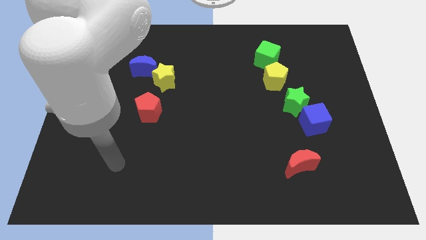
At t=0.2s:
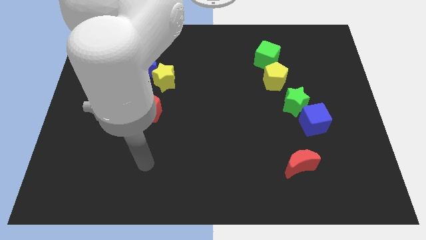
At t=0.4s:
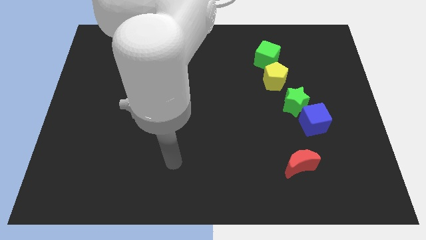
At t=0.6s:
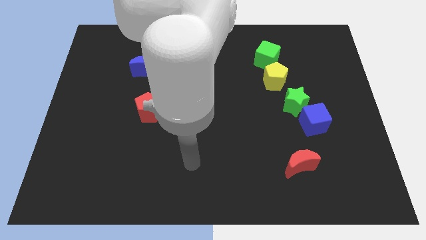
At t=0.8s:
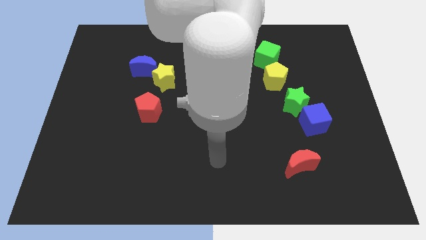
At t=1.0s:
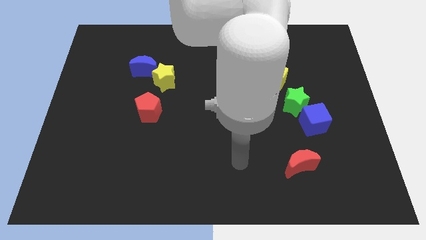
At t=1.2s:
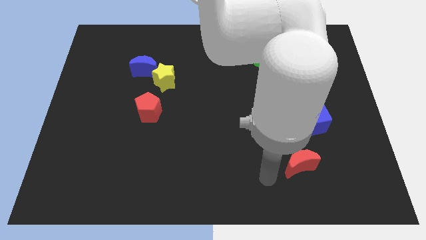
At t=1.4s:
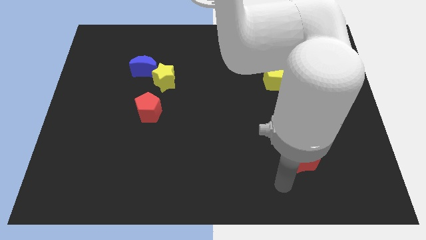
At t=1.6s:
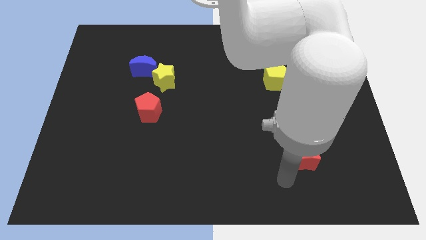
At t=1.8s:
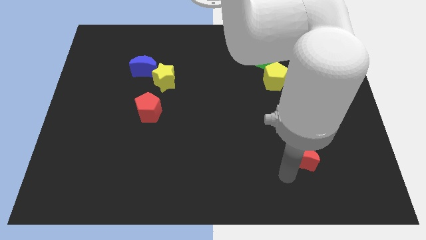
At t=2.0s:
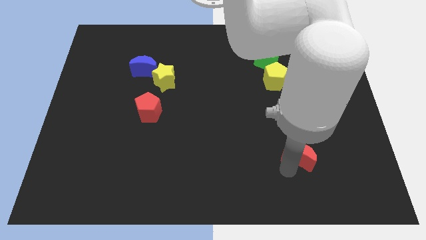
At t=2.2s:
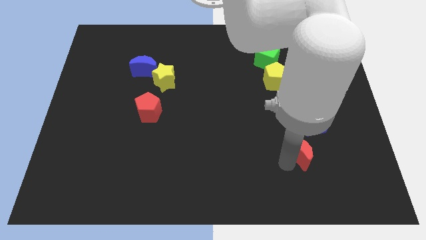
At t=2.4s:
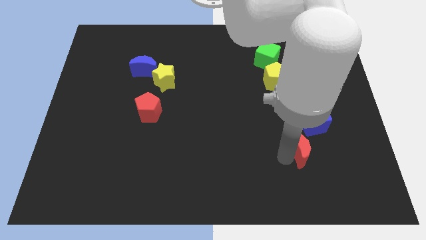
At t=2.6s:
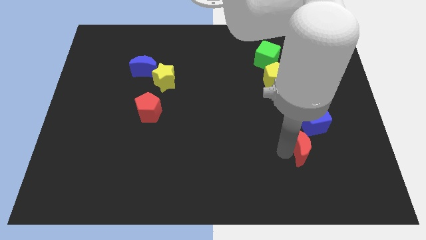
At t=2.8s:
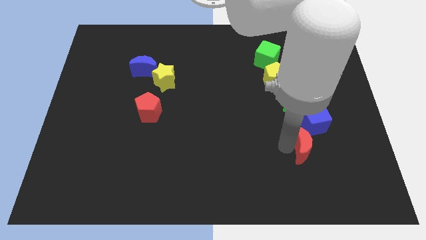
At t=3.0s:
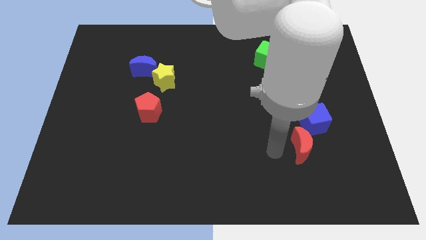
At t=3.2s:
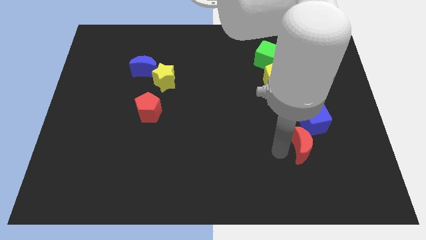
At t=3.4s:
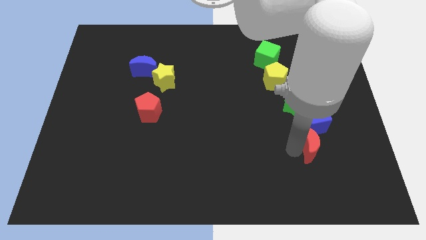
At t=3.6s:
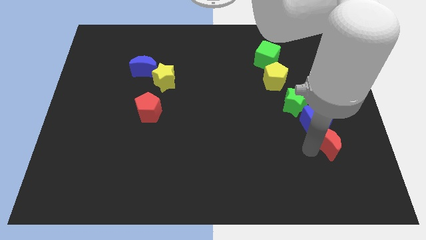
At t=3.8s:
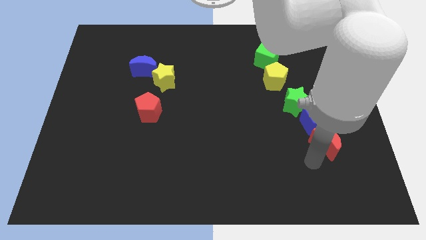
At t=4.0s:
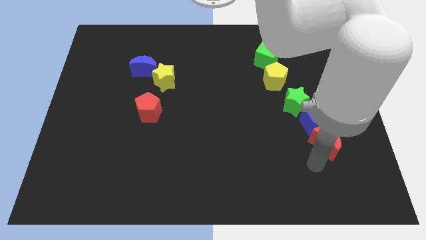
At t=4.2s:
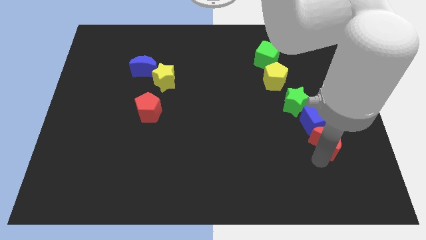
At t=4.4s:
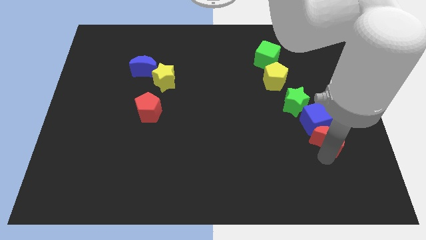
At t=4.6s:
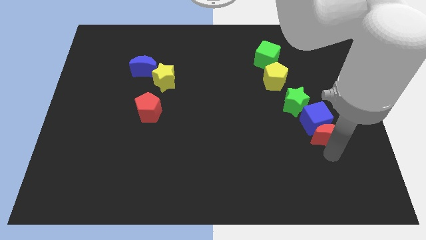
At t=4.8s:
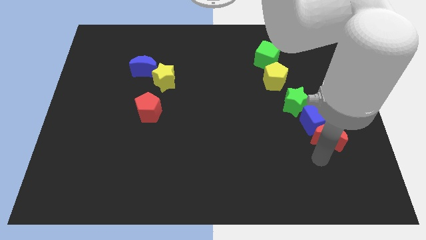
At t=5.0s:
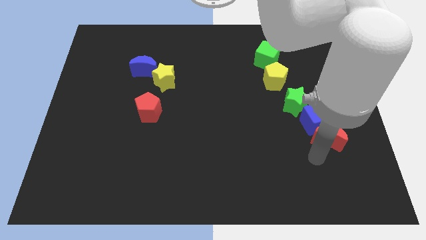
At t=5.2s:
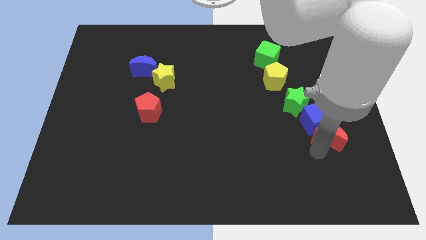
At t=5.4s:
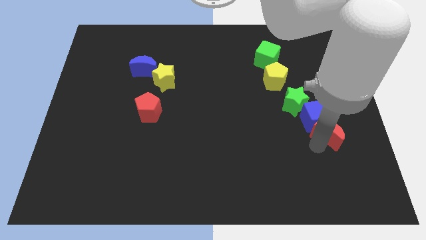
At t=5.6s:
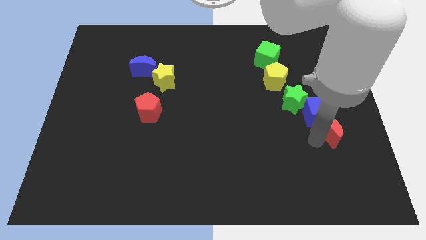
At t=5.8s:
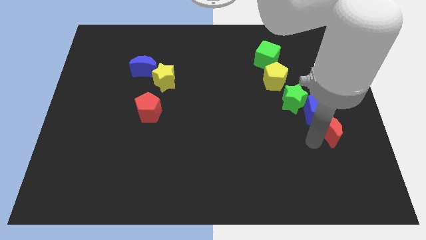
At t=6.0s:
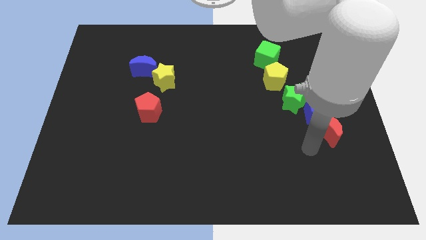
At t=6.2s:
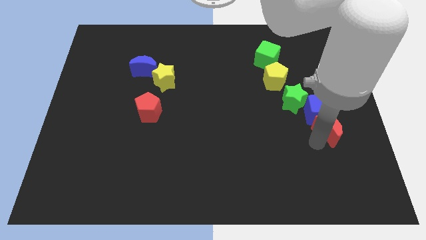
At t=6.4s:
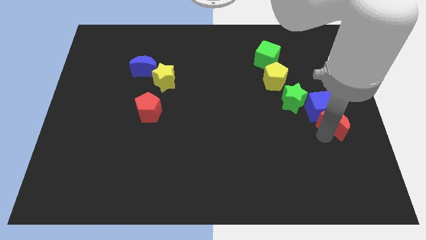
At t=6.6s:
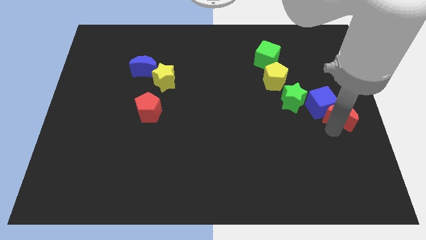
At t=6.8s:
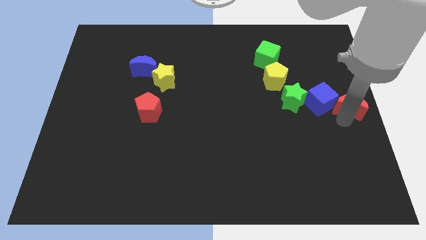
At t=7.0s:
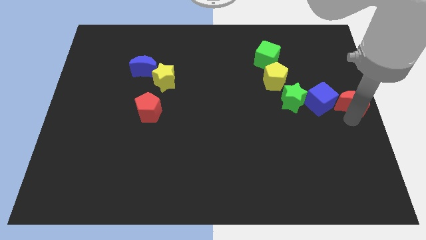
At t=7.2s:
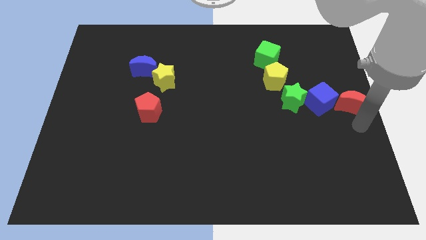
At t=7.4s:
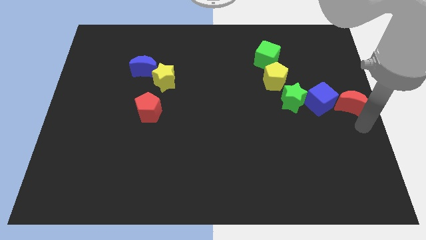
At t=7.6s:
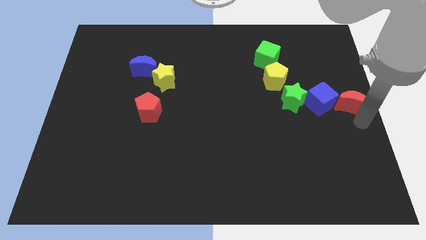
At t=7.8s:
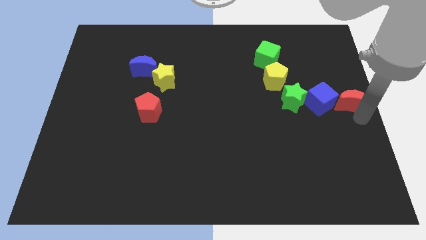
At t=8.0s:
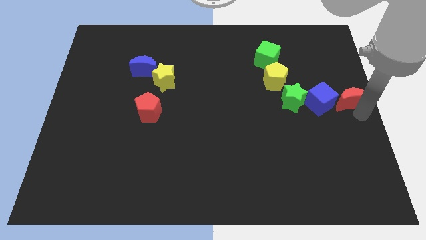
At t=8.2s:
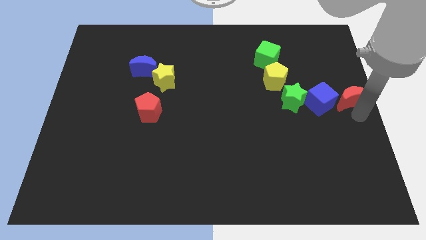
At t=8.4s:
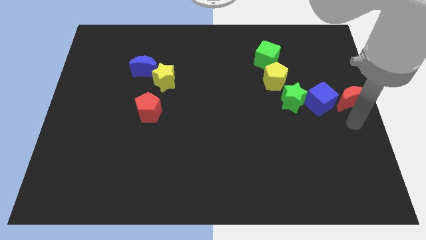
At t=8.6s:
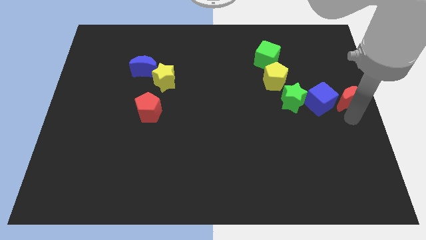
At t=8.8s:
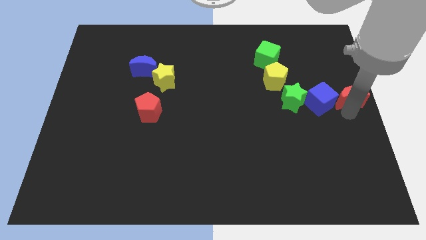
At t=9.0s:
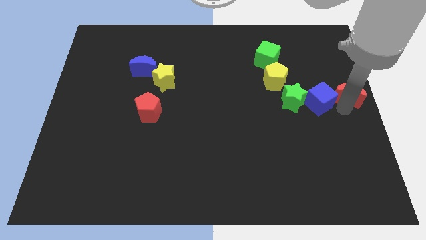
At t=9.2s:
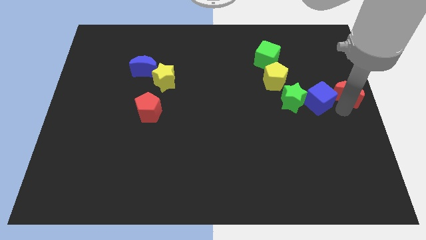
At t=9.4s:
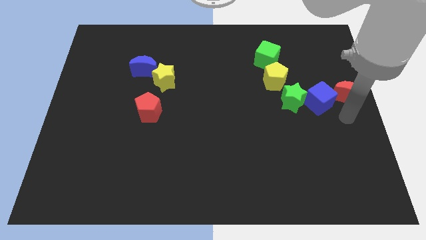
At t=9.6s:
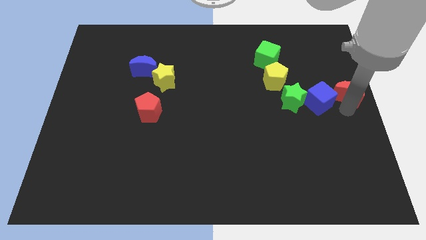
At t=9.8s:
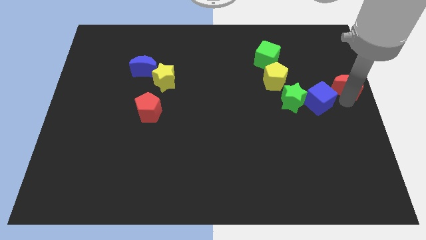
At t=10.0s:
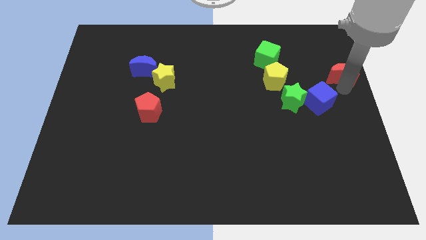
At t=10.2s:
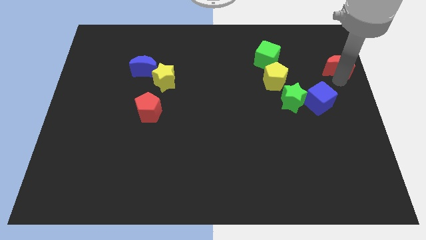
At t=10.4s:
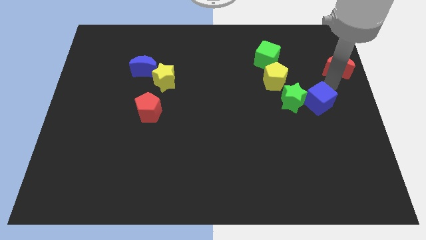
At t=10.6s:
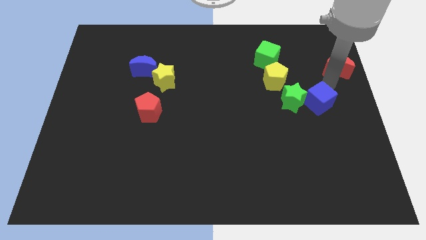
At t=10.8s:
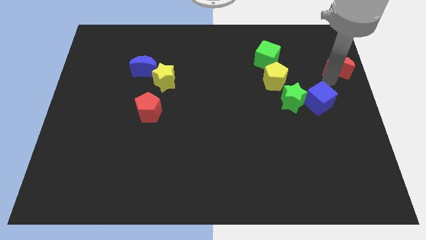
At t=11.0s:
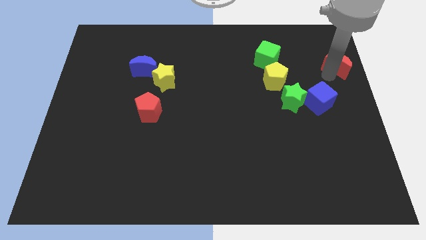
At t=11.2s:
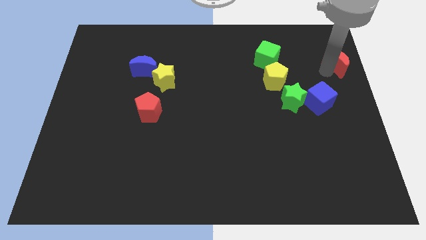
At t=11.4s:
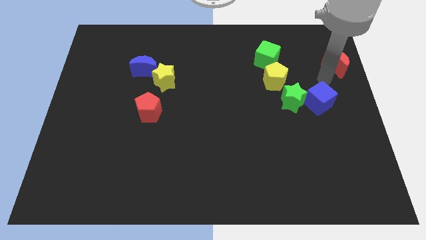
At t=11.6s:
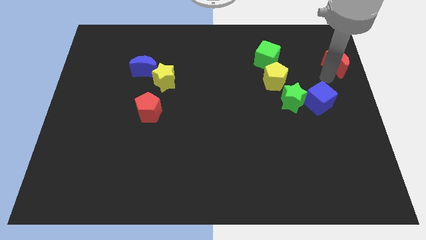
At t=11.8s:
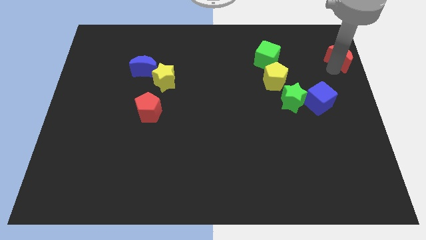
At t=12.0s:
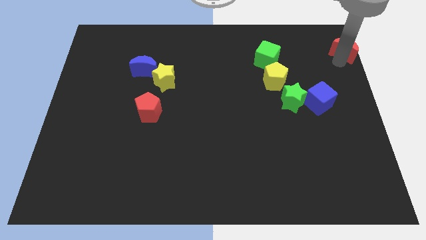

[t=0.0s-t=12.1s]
slide the red moon to the top right

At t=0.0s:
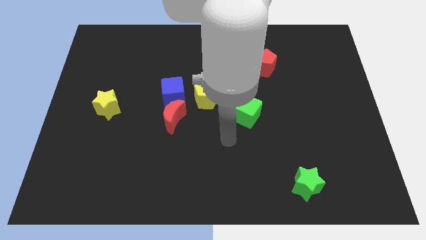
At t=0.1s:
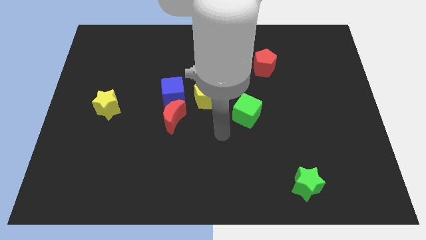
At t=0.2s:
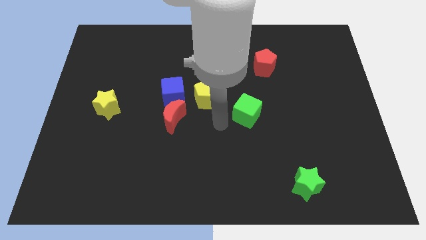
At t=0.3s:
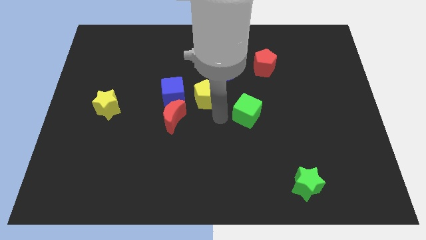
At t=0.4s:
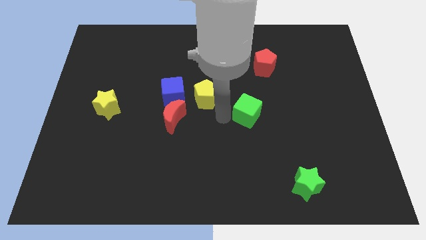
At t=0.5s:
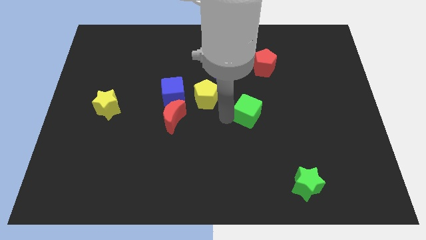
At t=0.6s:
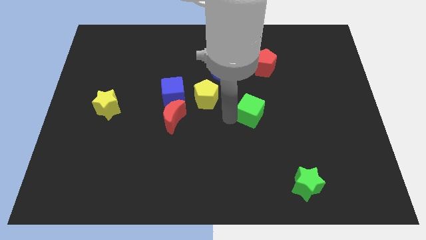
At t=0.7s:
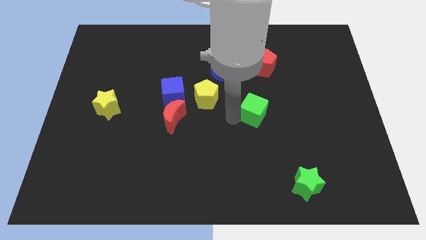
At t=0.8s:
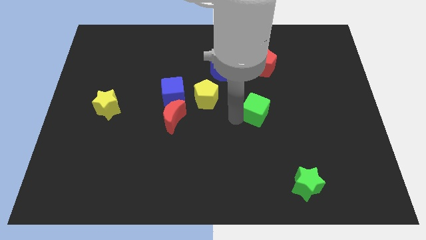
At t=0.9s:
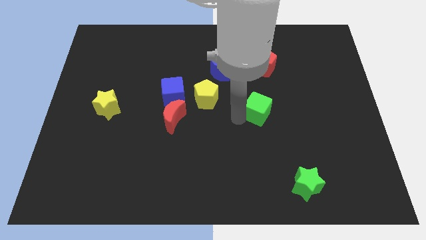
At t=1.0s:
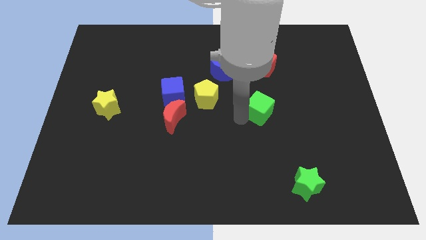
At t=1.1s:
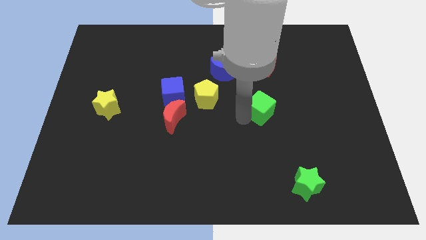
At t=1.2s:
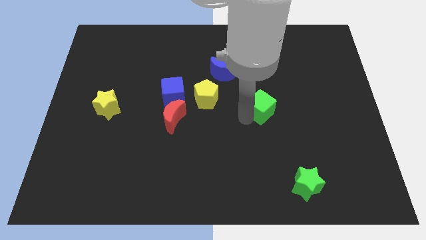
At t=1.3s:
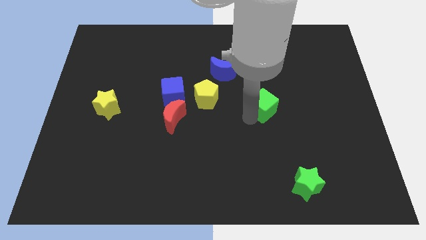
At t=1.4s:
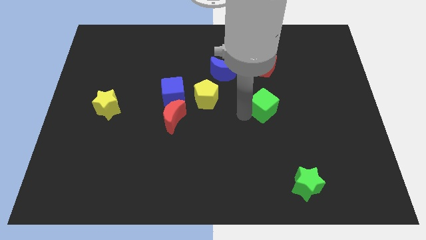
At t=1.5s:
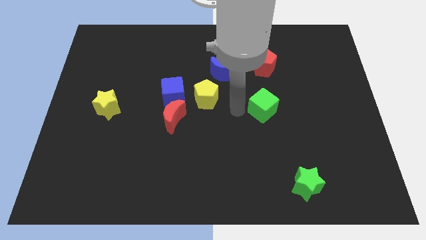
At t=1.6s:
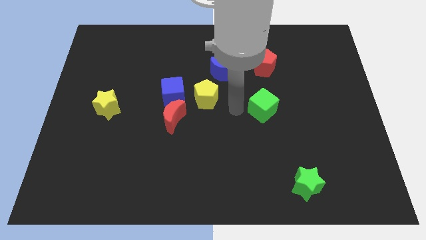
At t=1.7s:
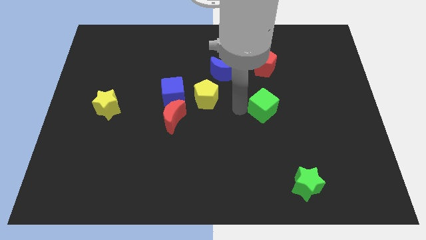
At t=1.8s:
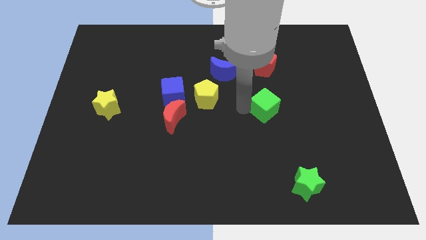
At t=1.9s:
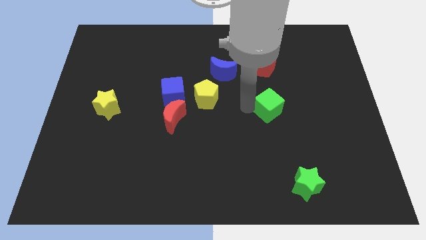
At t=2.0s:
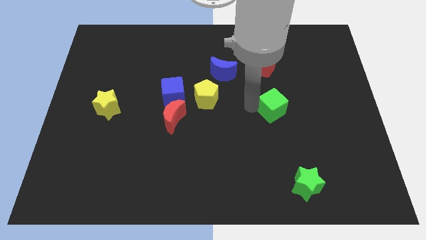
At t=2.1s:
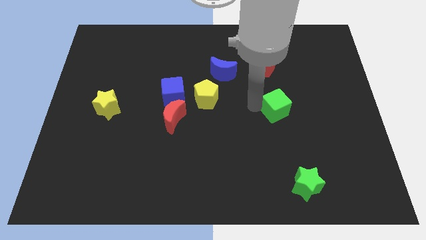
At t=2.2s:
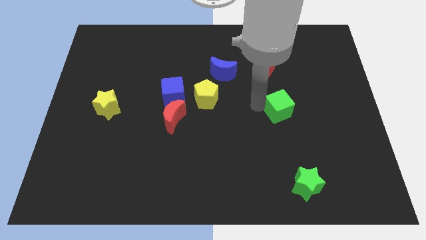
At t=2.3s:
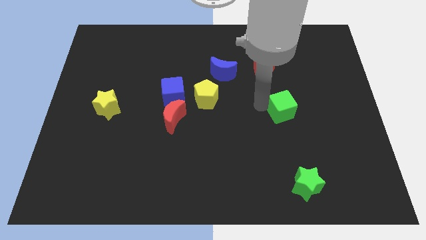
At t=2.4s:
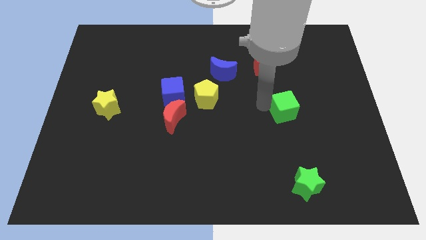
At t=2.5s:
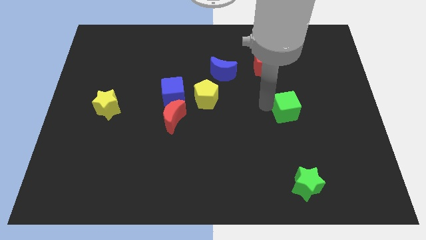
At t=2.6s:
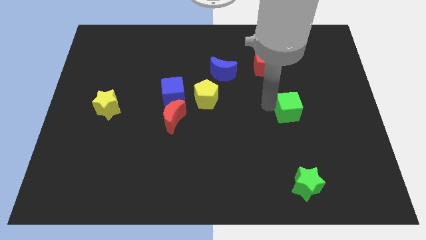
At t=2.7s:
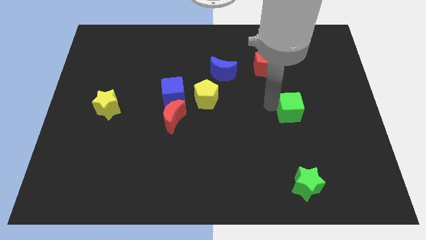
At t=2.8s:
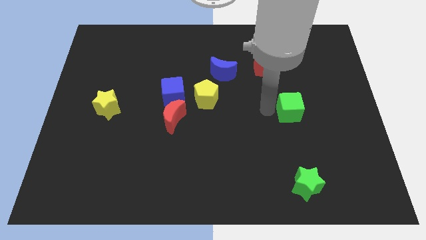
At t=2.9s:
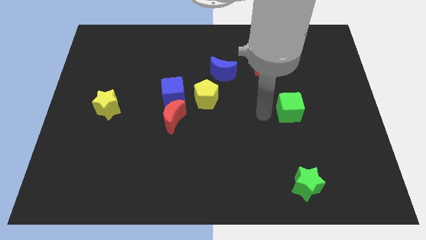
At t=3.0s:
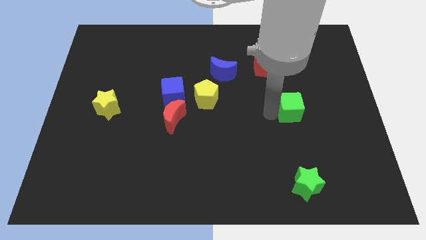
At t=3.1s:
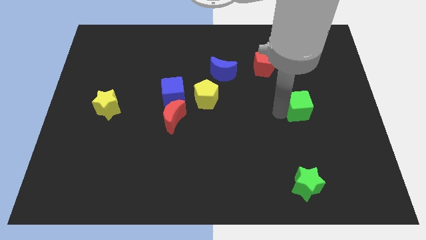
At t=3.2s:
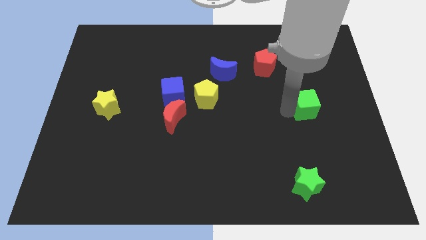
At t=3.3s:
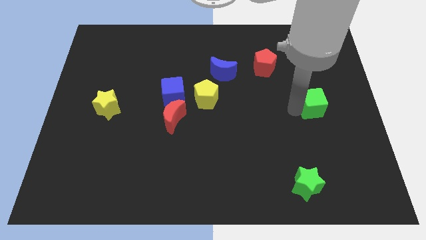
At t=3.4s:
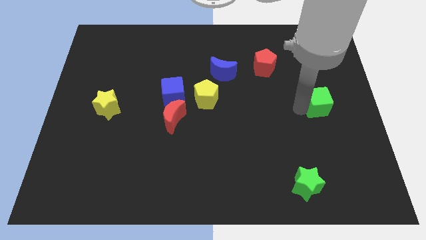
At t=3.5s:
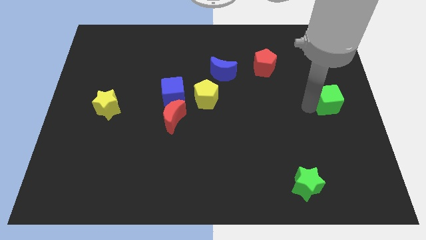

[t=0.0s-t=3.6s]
slide the green cube to the right side of the board
